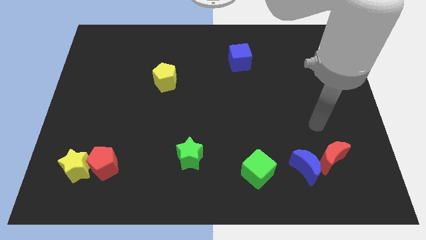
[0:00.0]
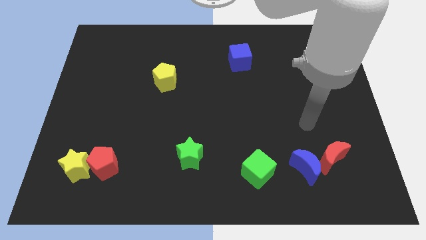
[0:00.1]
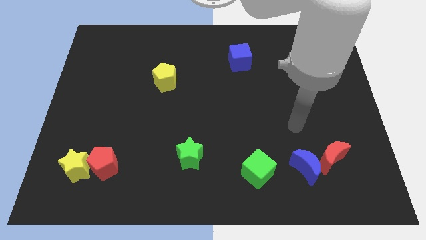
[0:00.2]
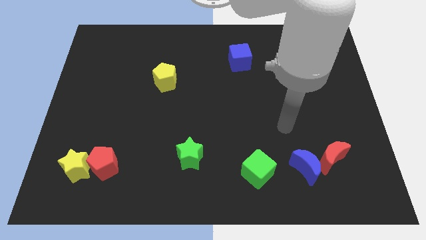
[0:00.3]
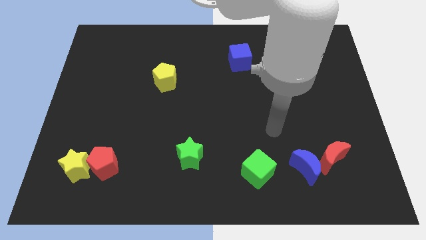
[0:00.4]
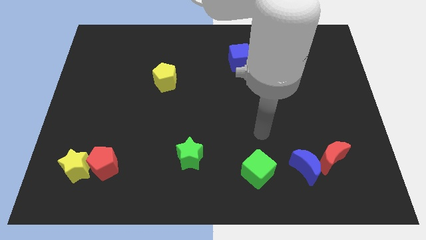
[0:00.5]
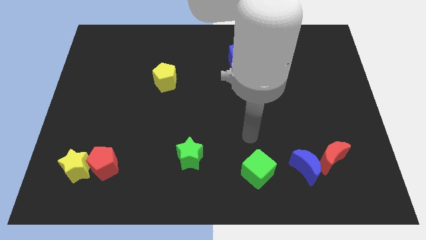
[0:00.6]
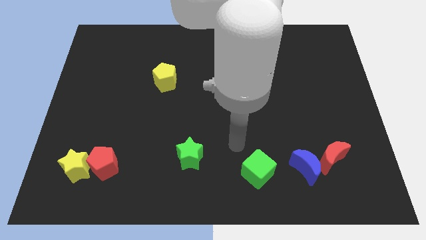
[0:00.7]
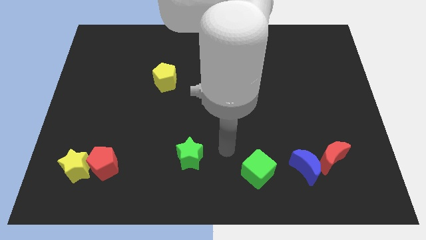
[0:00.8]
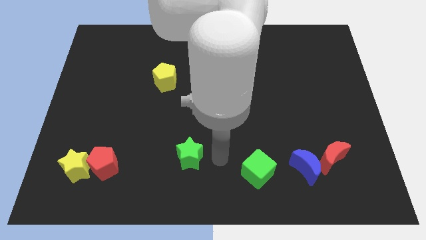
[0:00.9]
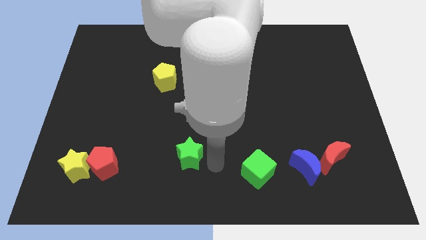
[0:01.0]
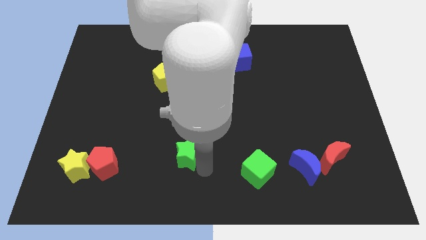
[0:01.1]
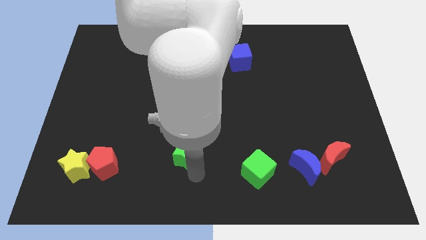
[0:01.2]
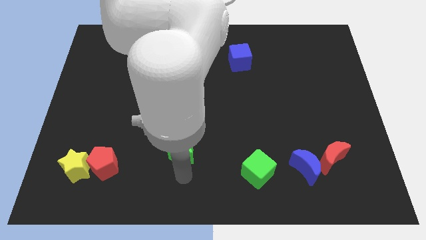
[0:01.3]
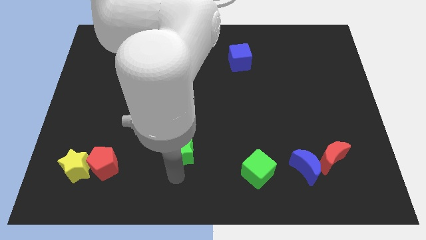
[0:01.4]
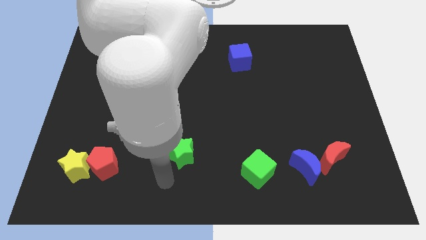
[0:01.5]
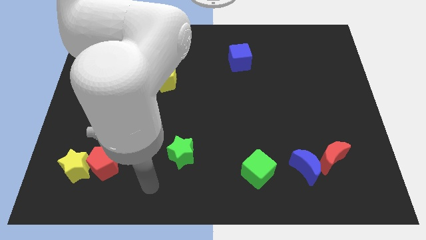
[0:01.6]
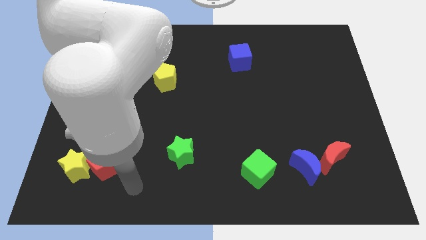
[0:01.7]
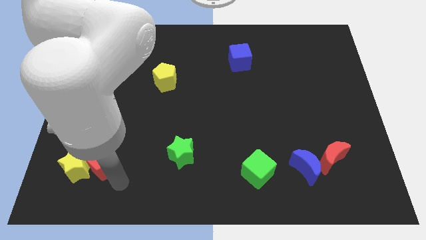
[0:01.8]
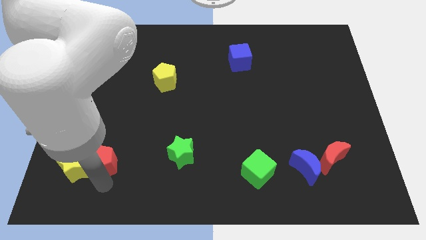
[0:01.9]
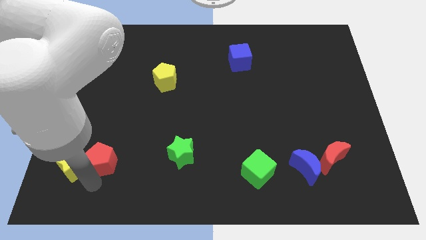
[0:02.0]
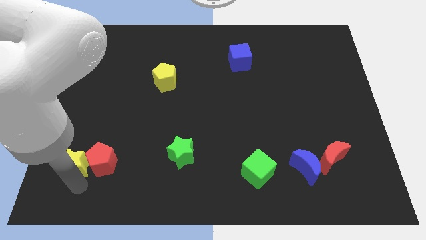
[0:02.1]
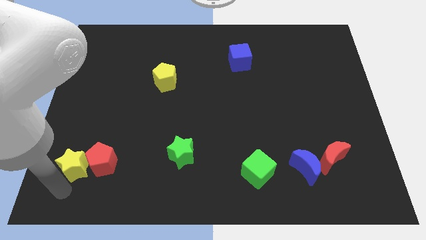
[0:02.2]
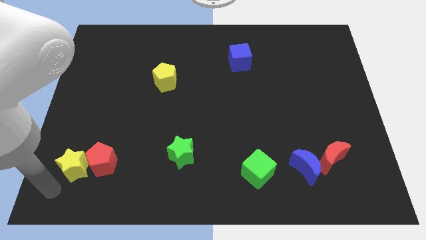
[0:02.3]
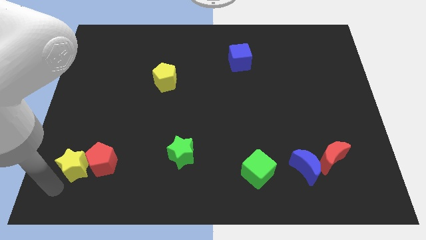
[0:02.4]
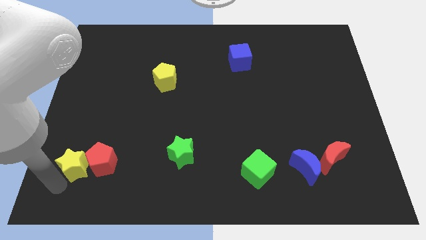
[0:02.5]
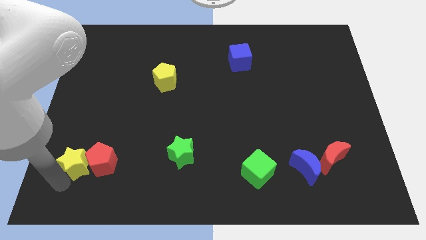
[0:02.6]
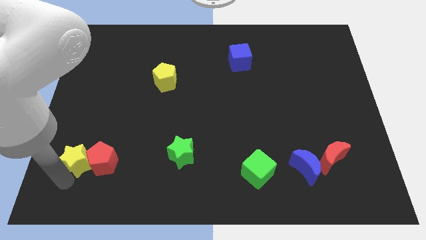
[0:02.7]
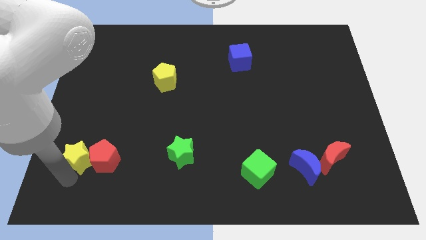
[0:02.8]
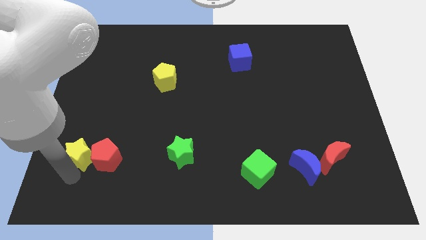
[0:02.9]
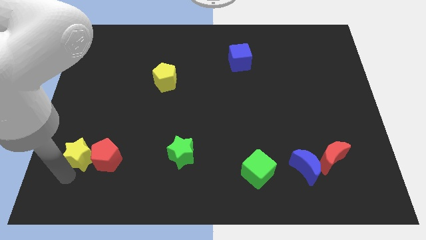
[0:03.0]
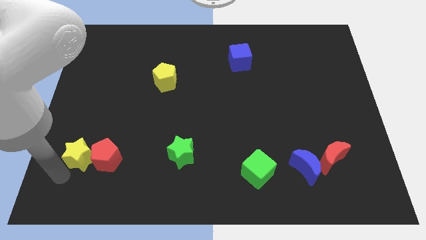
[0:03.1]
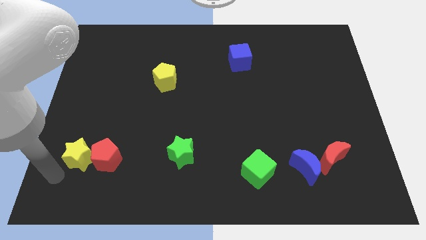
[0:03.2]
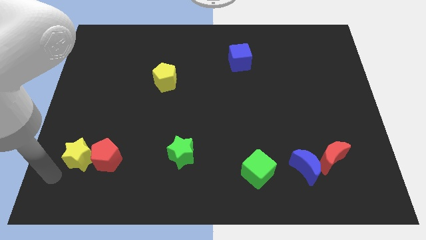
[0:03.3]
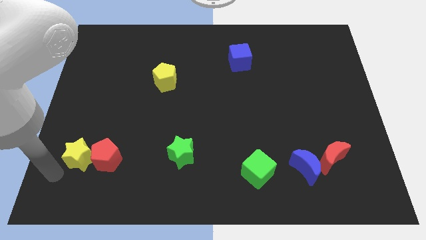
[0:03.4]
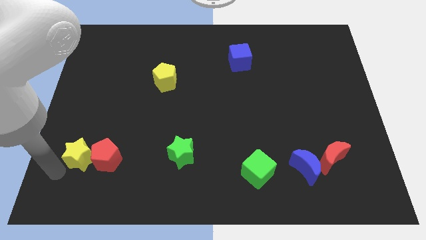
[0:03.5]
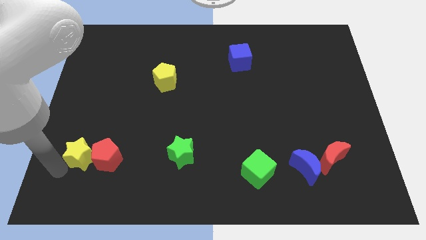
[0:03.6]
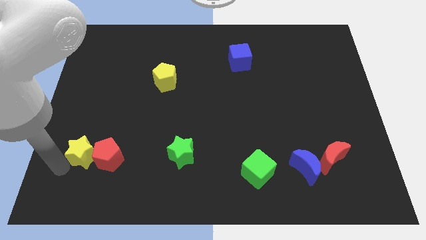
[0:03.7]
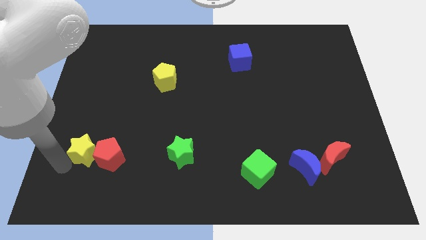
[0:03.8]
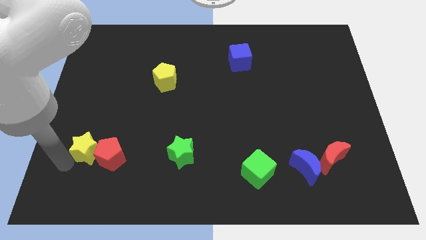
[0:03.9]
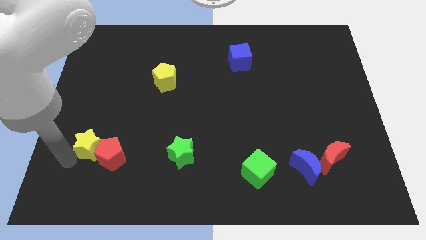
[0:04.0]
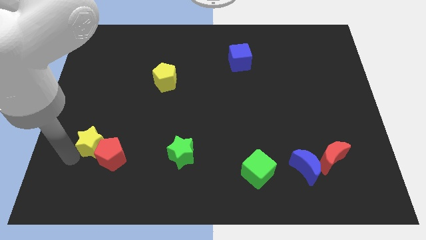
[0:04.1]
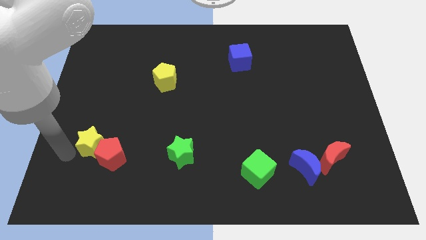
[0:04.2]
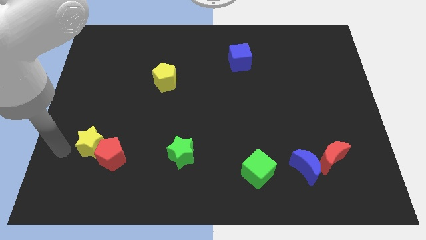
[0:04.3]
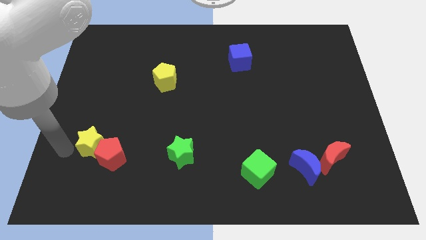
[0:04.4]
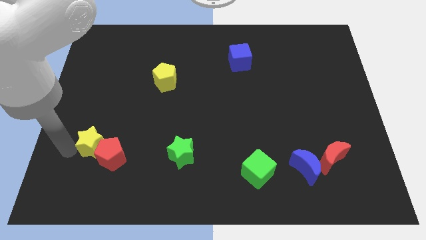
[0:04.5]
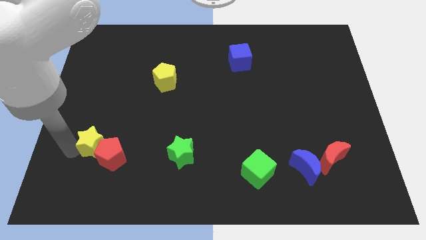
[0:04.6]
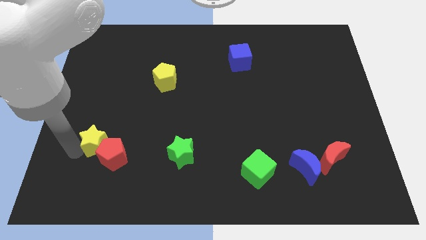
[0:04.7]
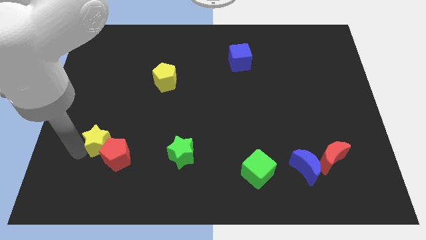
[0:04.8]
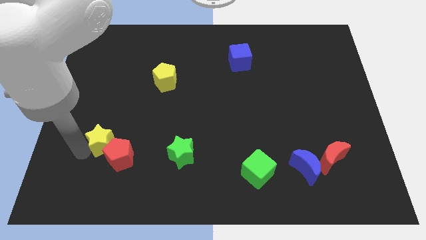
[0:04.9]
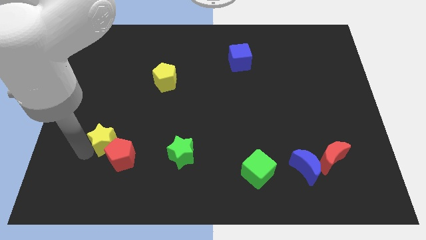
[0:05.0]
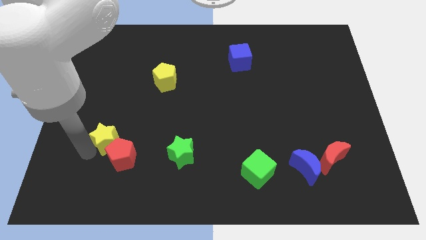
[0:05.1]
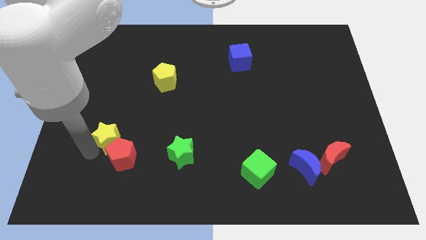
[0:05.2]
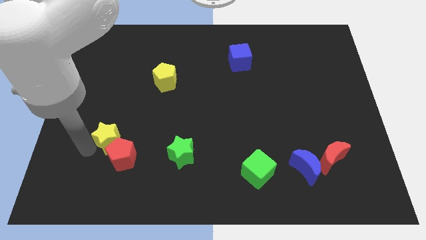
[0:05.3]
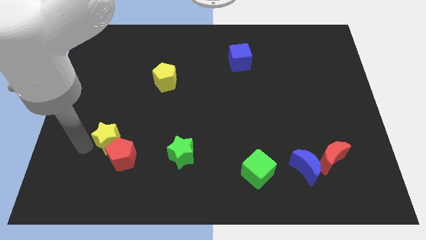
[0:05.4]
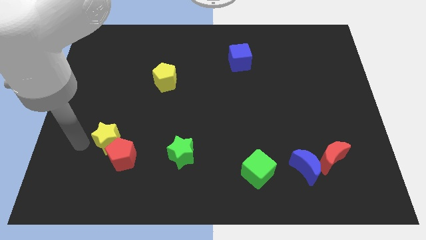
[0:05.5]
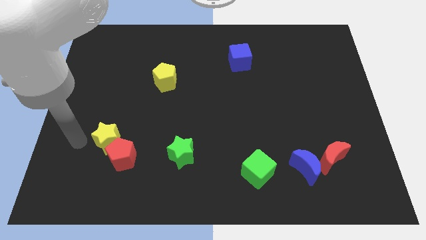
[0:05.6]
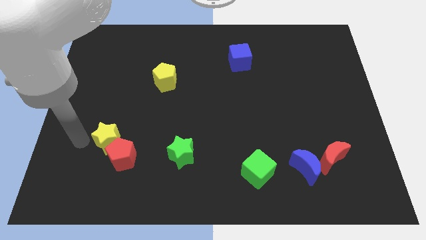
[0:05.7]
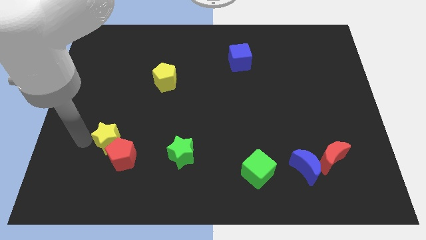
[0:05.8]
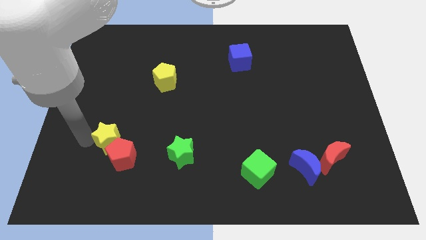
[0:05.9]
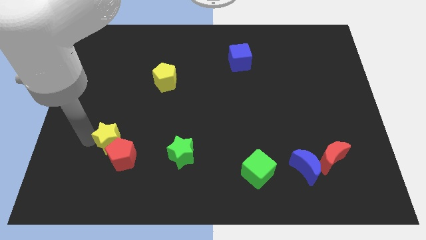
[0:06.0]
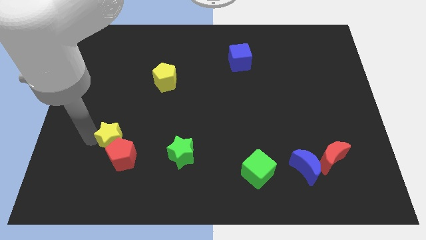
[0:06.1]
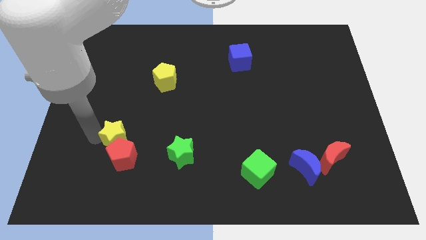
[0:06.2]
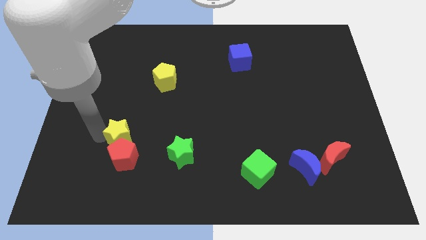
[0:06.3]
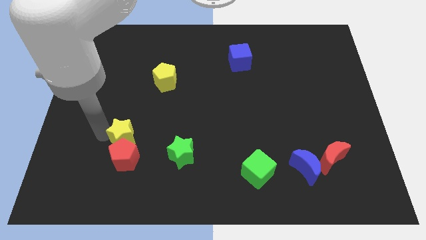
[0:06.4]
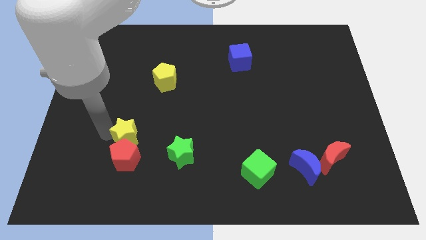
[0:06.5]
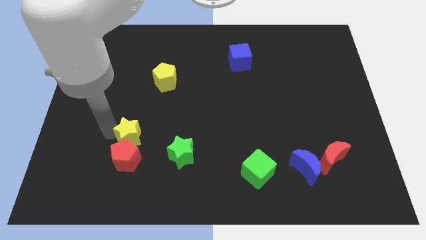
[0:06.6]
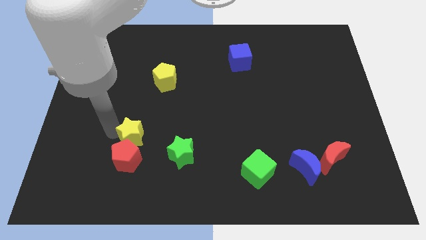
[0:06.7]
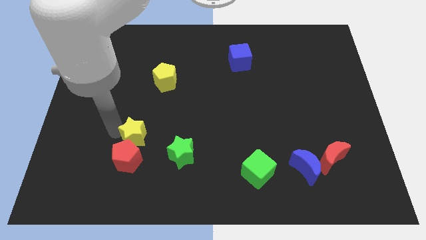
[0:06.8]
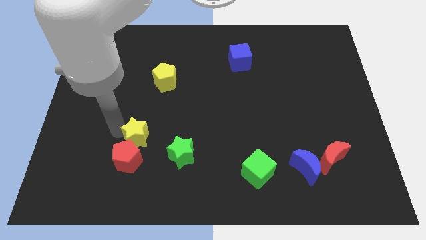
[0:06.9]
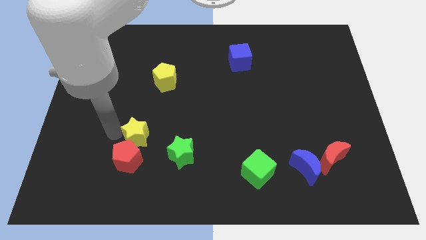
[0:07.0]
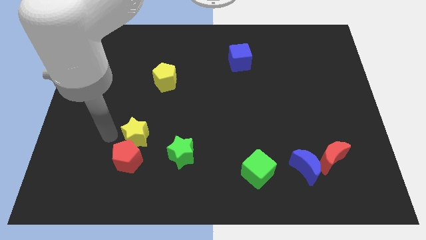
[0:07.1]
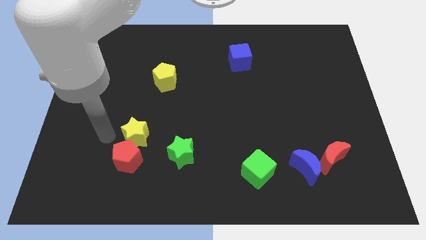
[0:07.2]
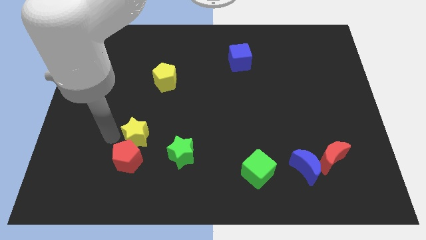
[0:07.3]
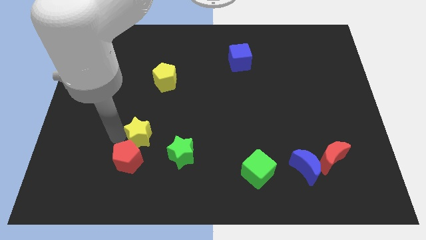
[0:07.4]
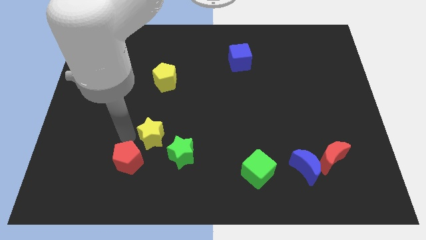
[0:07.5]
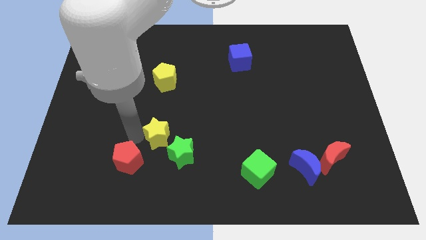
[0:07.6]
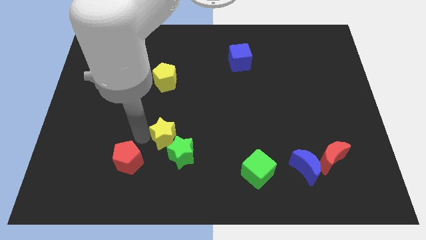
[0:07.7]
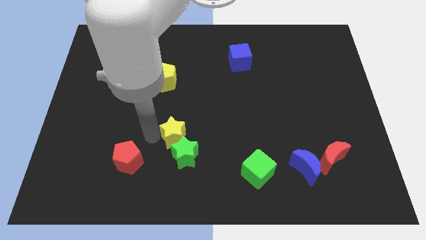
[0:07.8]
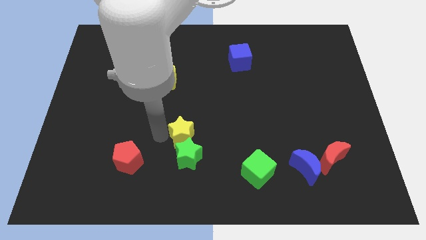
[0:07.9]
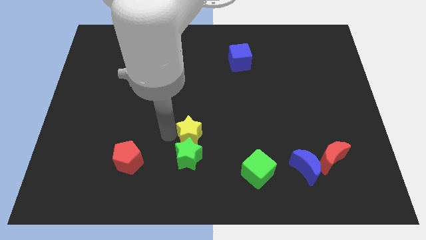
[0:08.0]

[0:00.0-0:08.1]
slide the yellow star right
